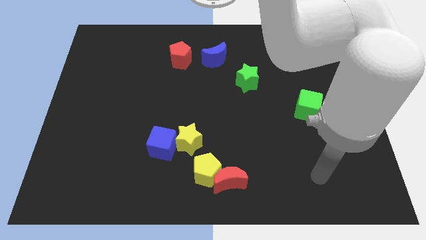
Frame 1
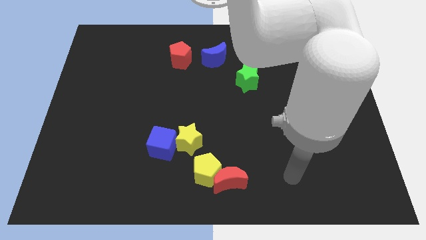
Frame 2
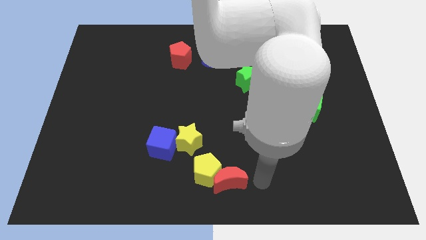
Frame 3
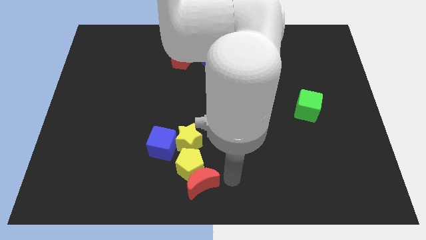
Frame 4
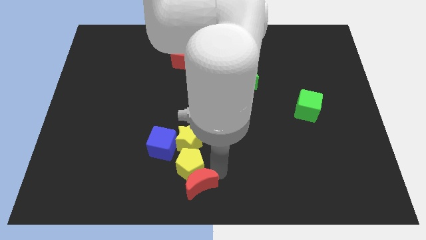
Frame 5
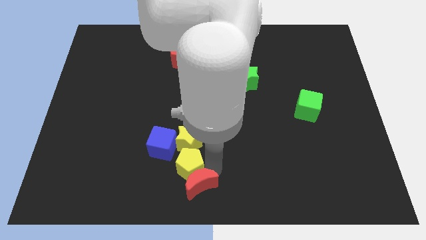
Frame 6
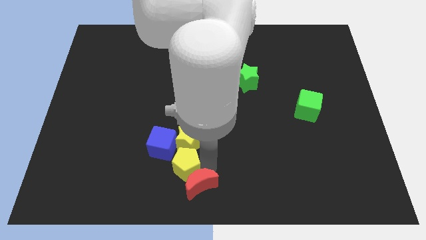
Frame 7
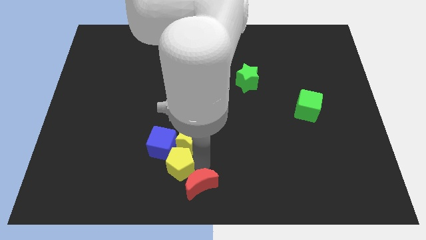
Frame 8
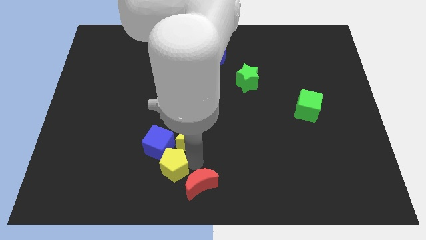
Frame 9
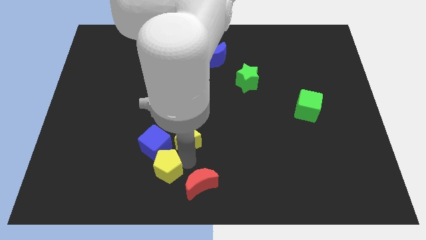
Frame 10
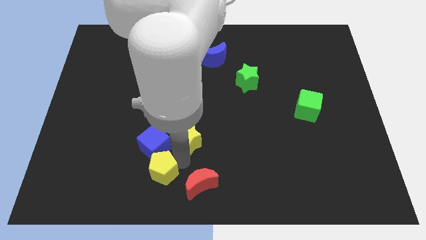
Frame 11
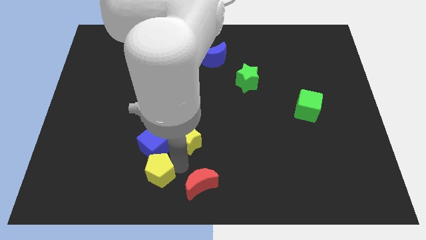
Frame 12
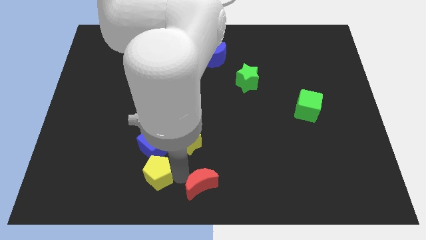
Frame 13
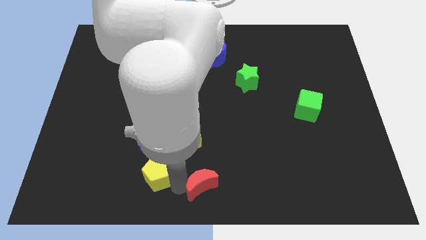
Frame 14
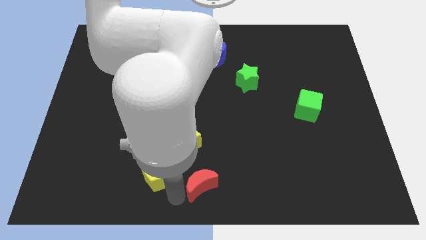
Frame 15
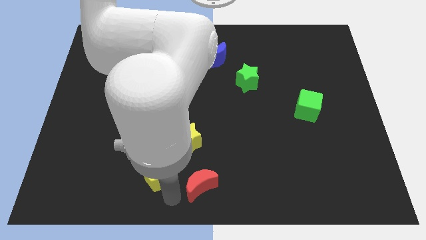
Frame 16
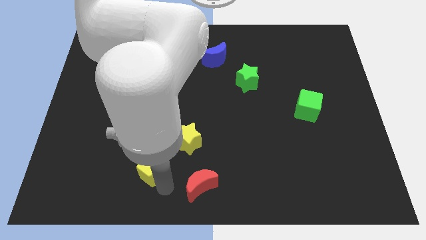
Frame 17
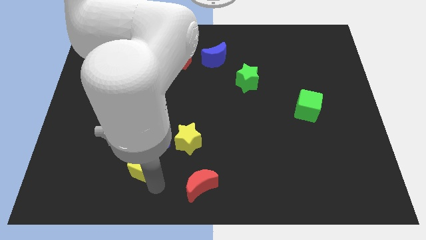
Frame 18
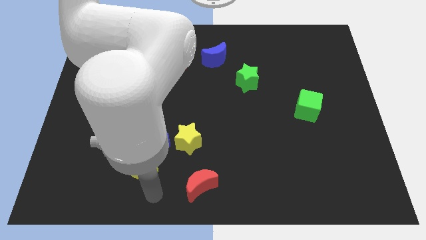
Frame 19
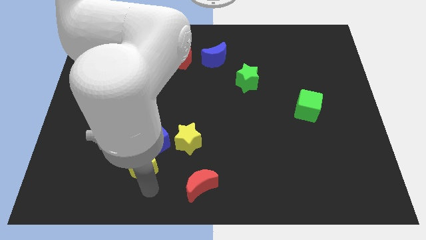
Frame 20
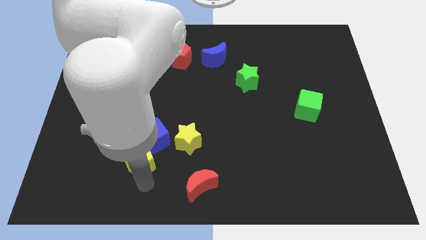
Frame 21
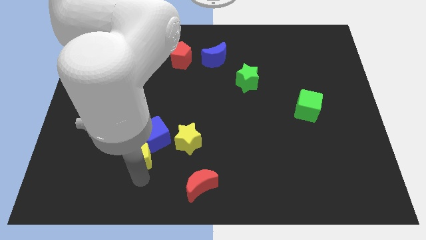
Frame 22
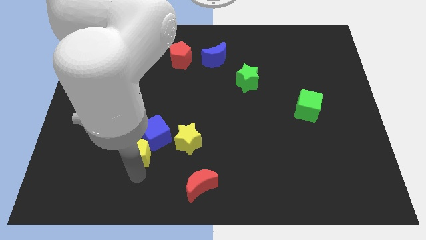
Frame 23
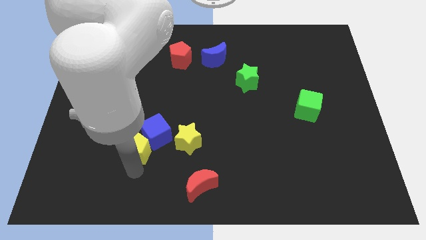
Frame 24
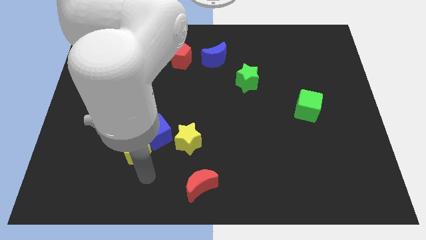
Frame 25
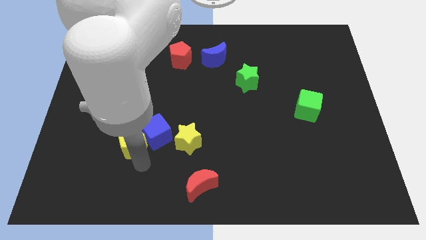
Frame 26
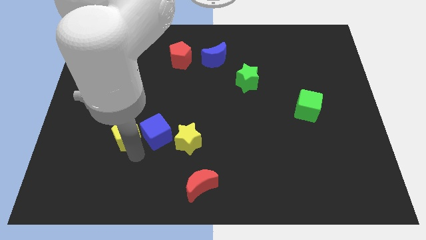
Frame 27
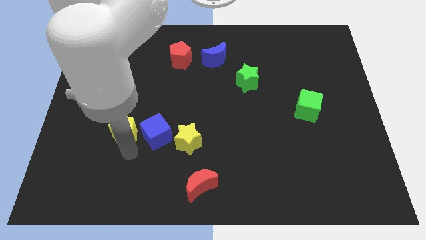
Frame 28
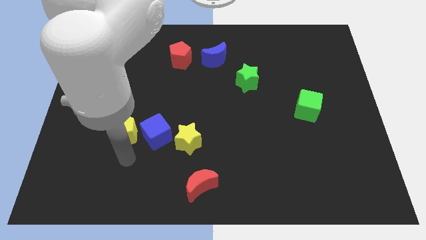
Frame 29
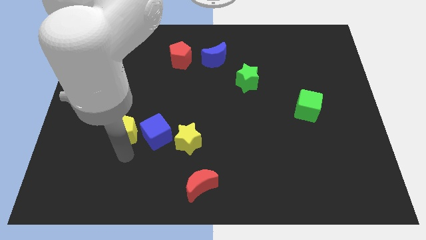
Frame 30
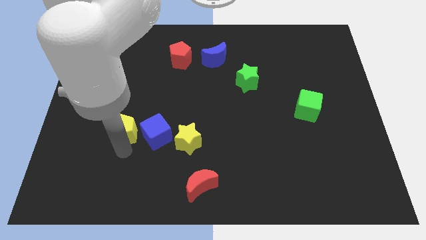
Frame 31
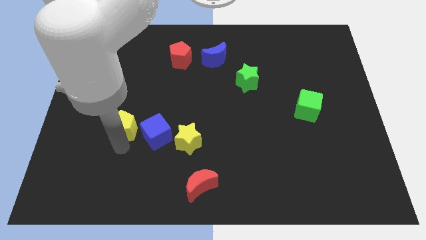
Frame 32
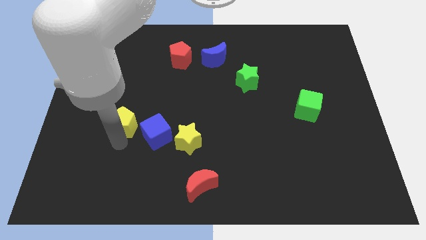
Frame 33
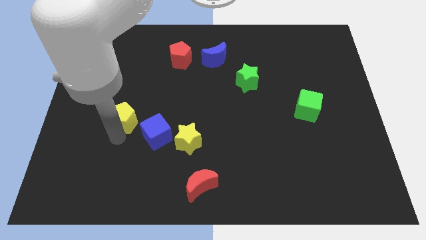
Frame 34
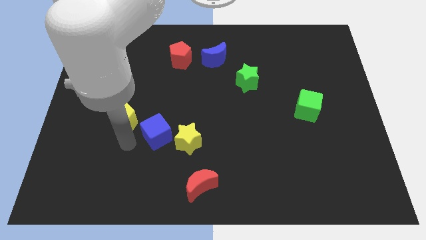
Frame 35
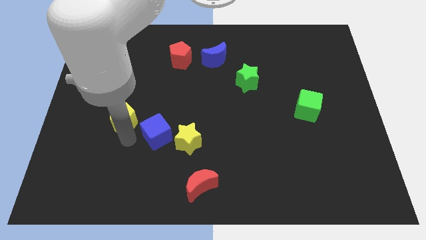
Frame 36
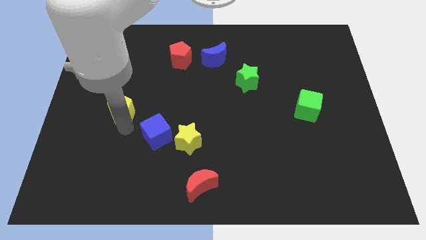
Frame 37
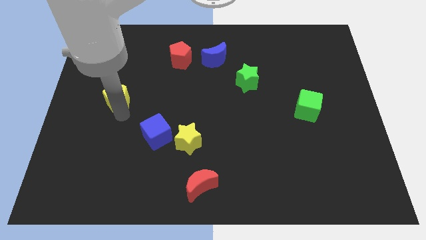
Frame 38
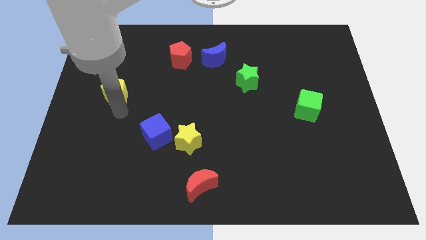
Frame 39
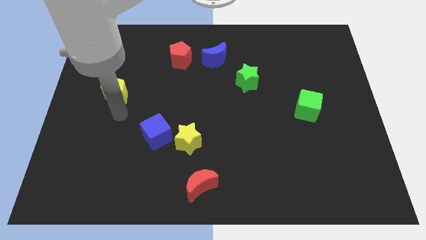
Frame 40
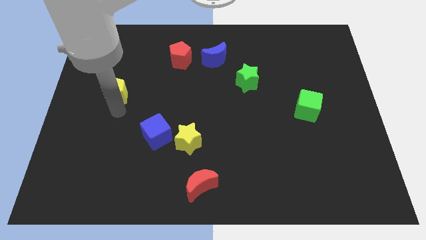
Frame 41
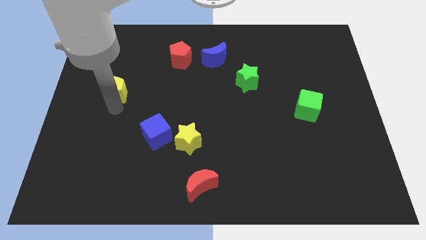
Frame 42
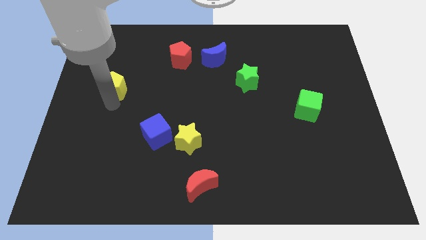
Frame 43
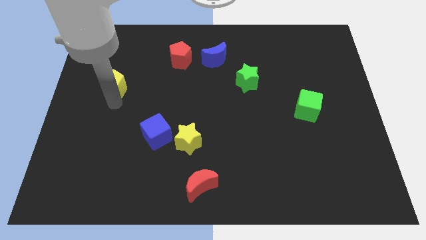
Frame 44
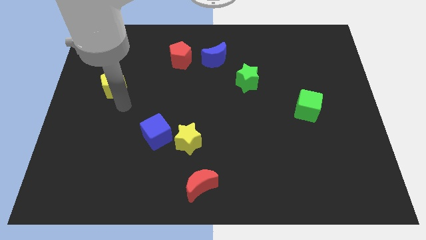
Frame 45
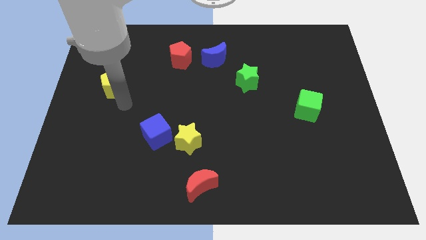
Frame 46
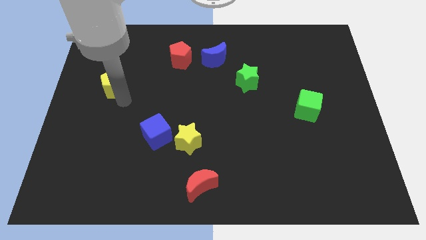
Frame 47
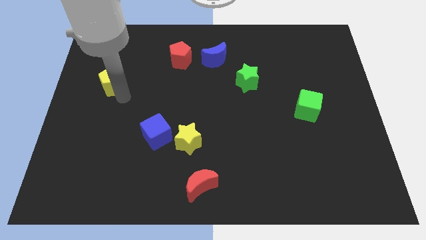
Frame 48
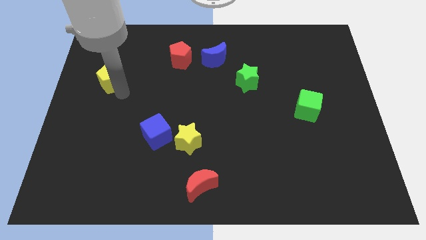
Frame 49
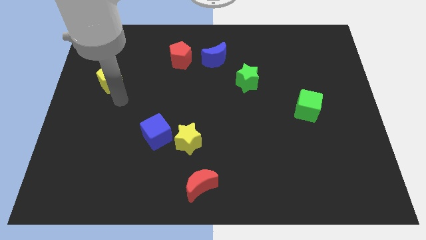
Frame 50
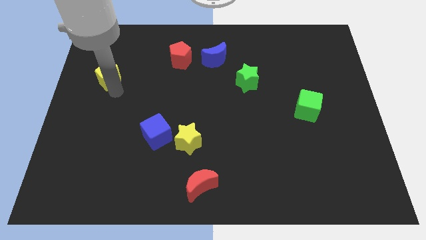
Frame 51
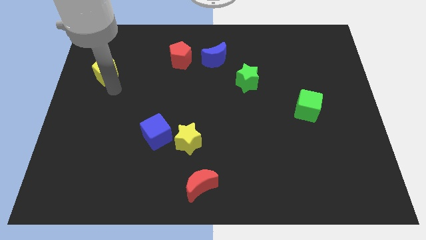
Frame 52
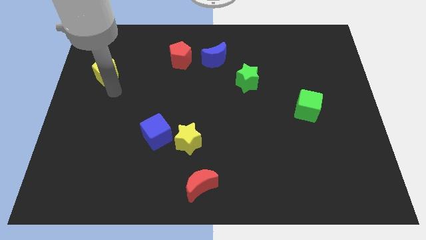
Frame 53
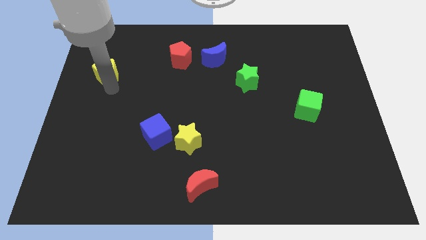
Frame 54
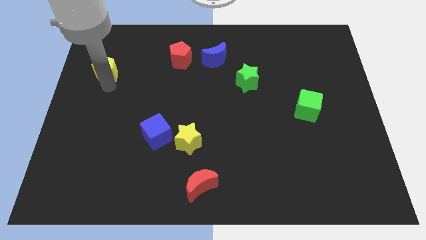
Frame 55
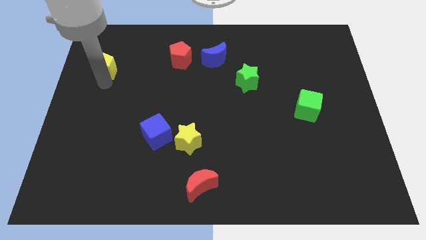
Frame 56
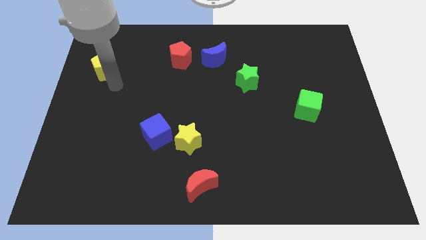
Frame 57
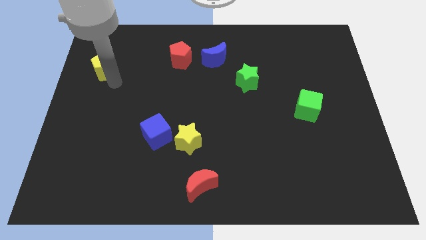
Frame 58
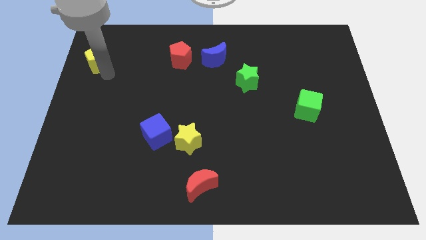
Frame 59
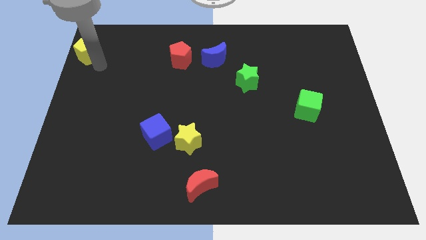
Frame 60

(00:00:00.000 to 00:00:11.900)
push the yellow pentagon to the top left of the board

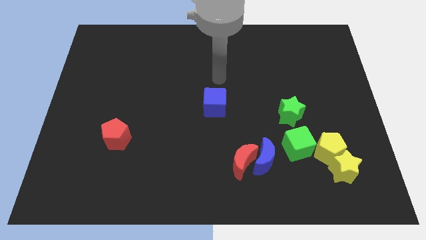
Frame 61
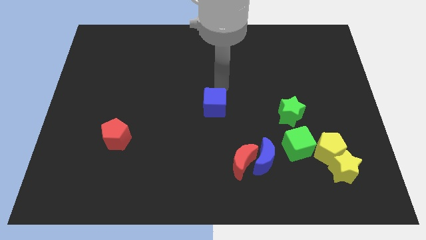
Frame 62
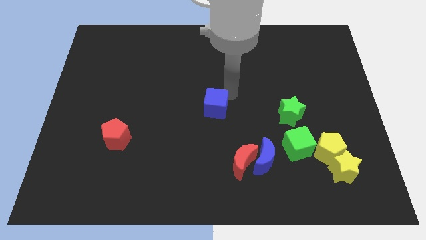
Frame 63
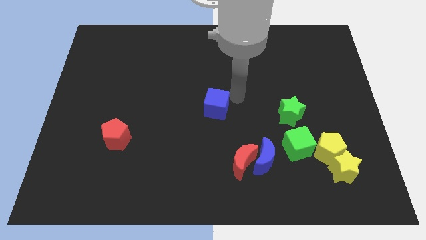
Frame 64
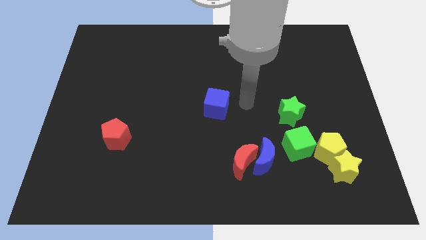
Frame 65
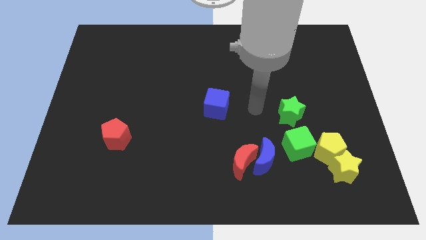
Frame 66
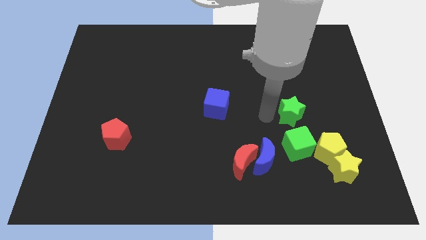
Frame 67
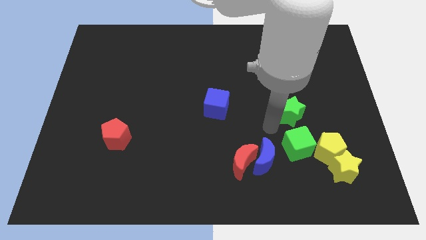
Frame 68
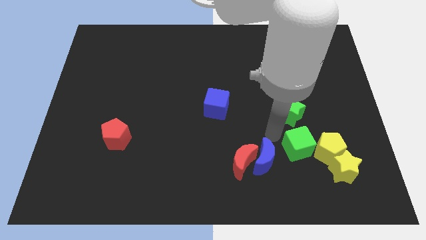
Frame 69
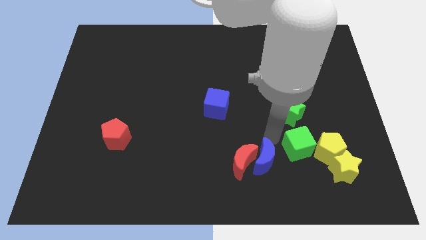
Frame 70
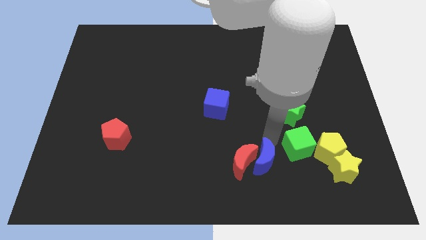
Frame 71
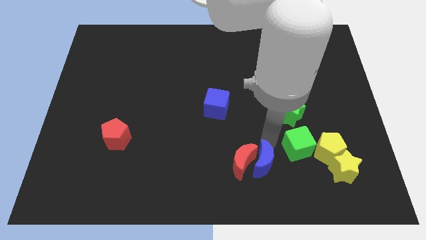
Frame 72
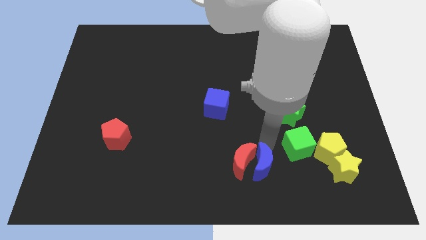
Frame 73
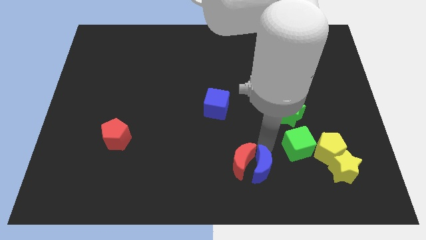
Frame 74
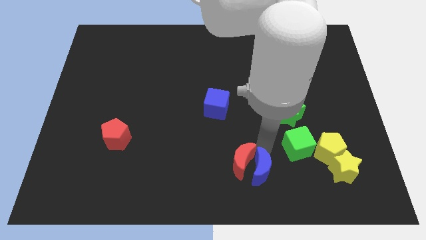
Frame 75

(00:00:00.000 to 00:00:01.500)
push the blue moon to the bottom side
